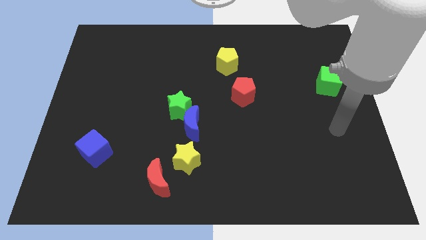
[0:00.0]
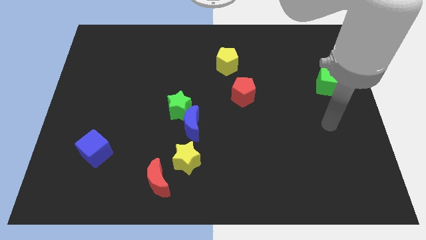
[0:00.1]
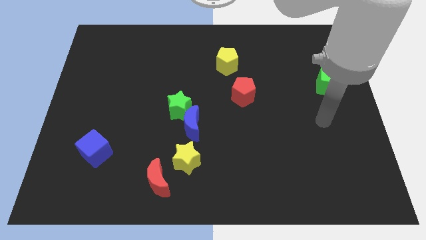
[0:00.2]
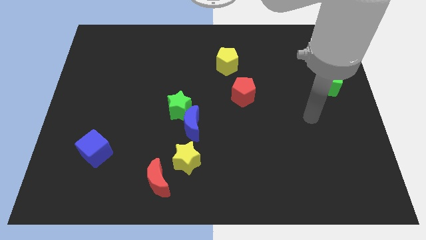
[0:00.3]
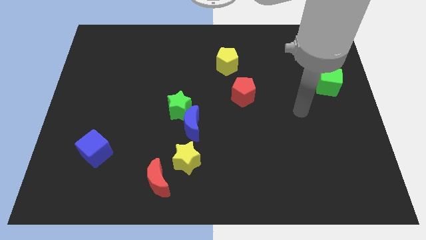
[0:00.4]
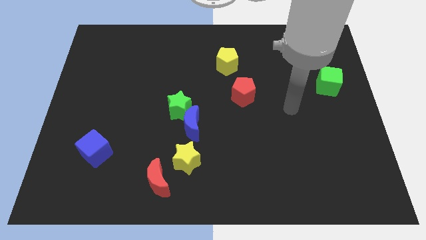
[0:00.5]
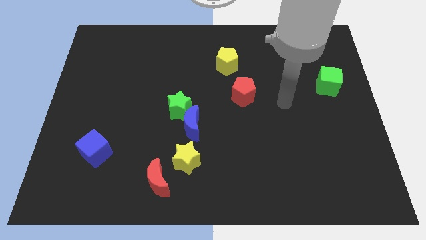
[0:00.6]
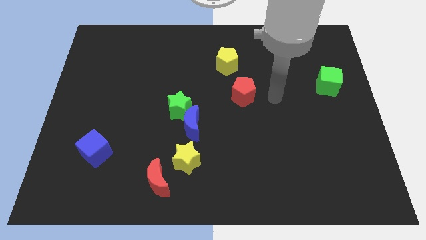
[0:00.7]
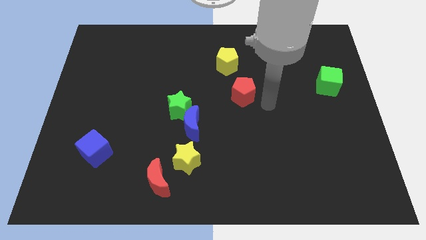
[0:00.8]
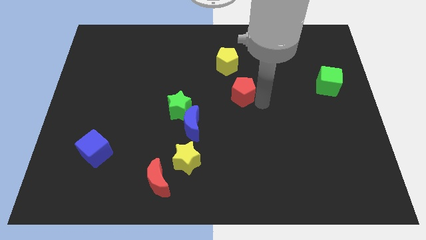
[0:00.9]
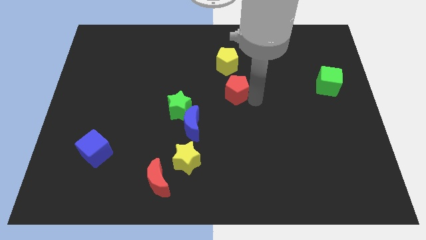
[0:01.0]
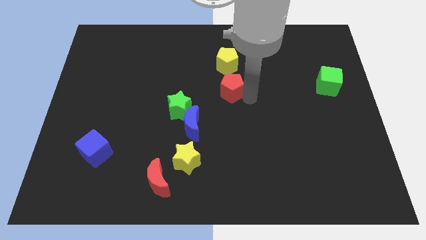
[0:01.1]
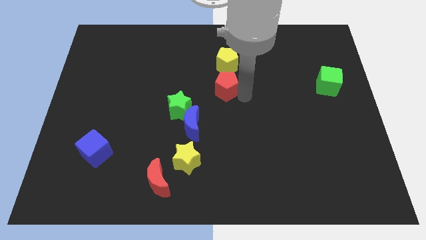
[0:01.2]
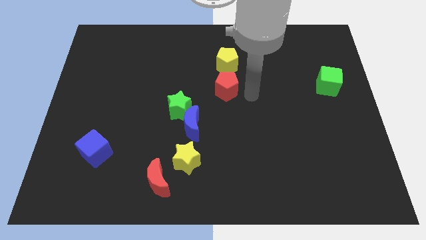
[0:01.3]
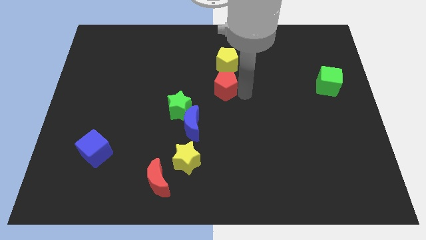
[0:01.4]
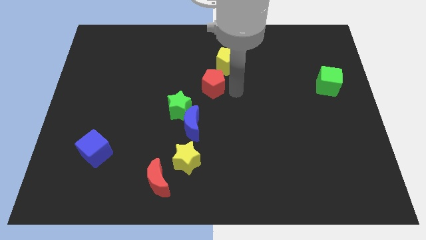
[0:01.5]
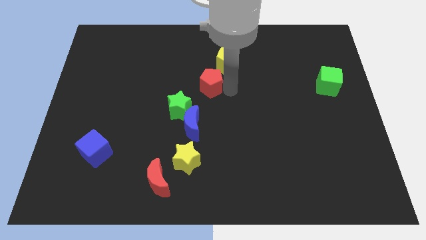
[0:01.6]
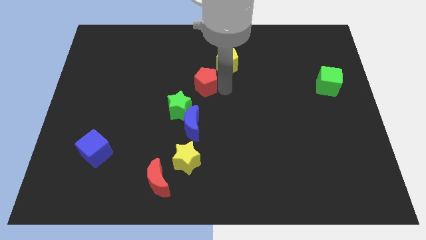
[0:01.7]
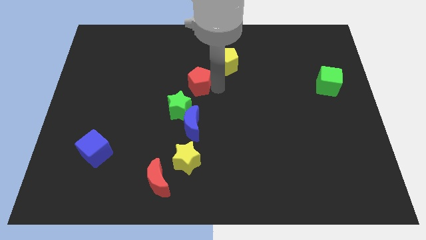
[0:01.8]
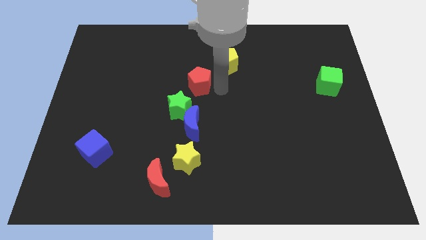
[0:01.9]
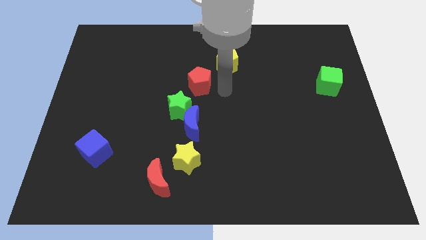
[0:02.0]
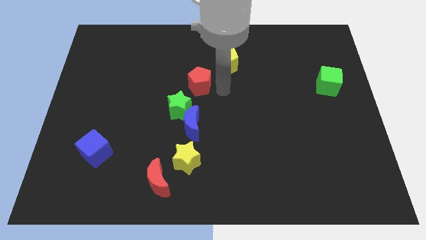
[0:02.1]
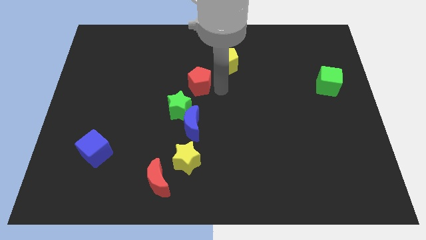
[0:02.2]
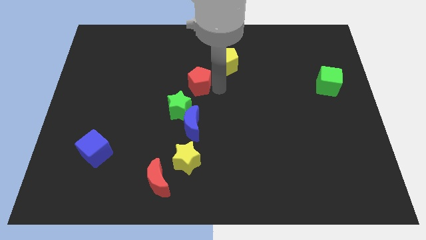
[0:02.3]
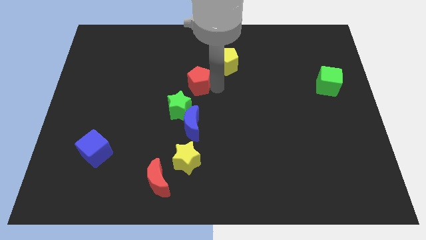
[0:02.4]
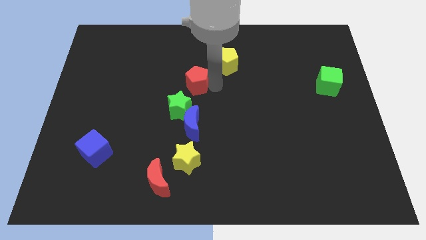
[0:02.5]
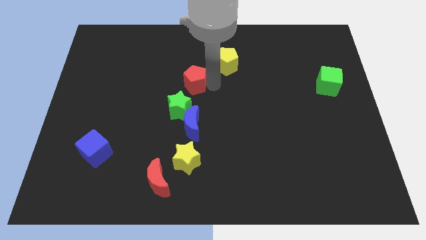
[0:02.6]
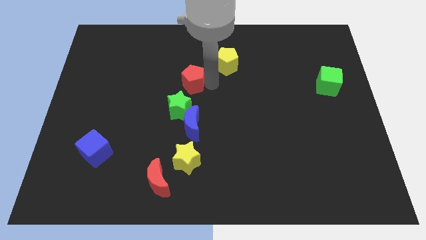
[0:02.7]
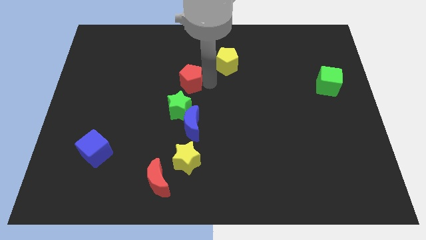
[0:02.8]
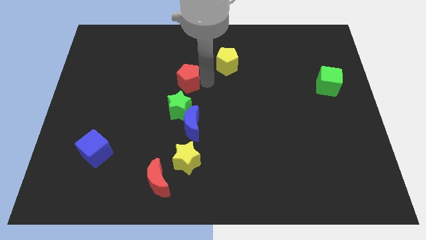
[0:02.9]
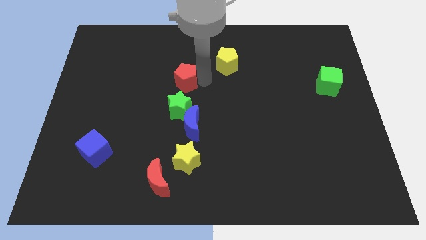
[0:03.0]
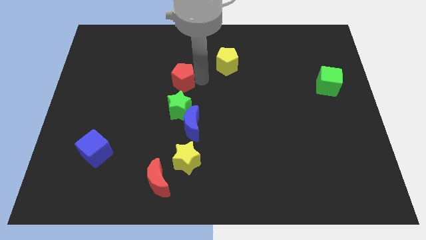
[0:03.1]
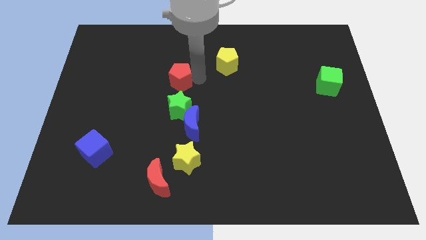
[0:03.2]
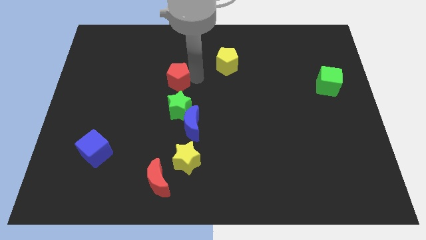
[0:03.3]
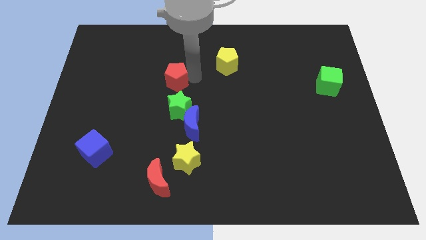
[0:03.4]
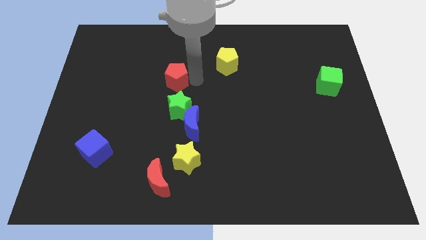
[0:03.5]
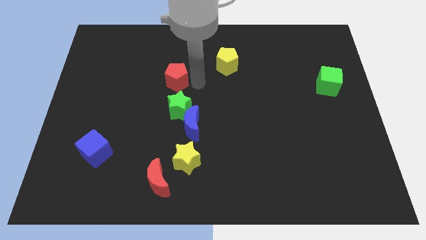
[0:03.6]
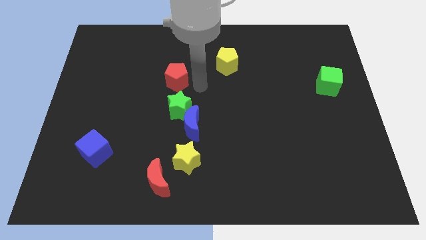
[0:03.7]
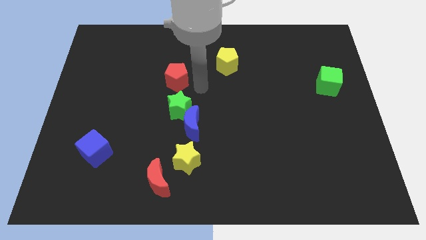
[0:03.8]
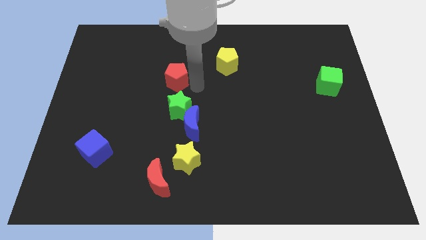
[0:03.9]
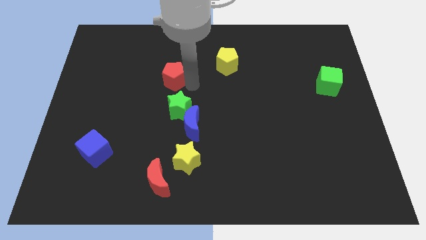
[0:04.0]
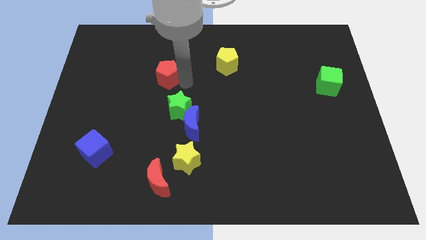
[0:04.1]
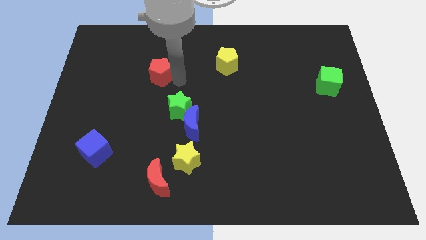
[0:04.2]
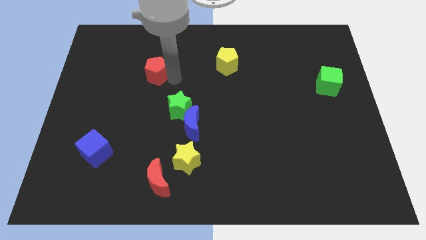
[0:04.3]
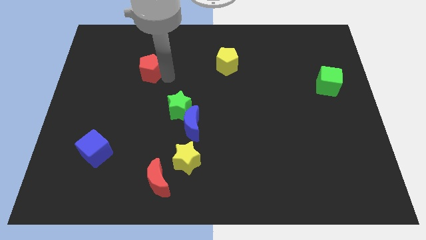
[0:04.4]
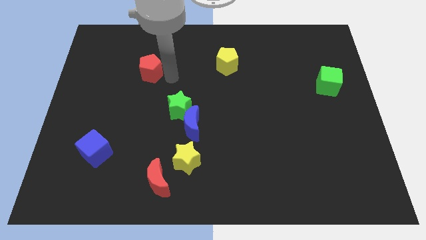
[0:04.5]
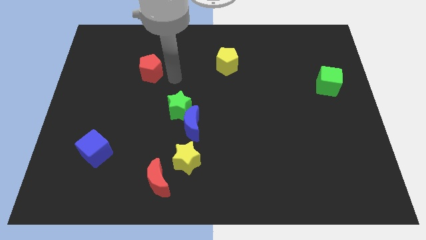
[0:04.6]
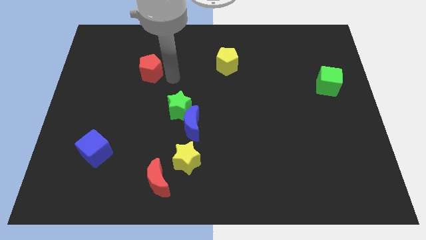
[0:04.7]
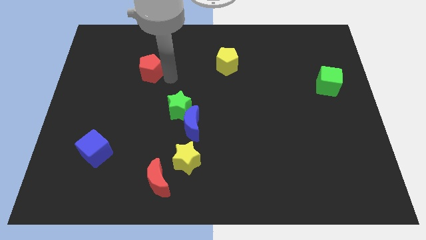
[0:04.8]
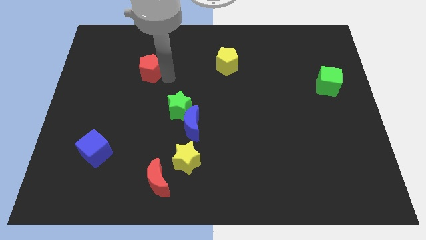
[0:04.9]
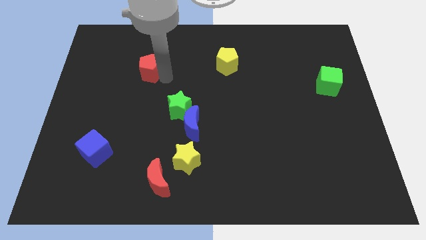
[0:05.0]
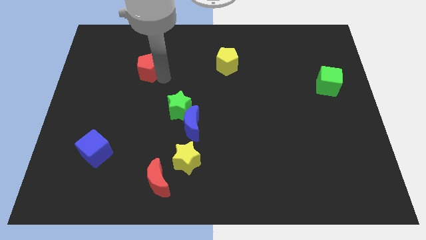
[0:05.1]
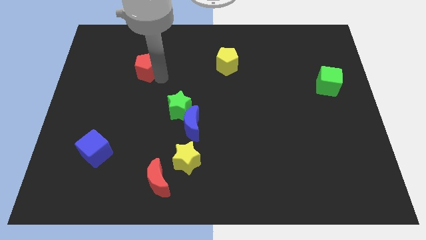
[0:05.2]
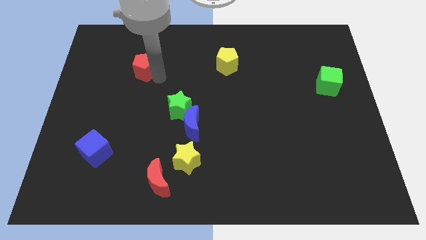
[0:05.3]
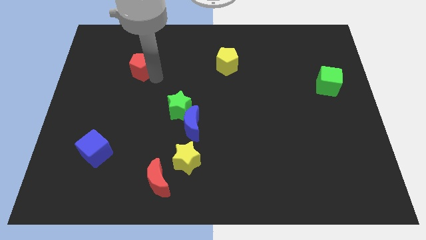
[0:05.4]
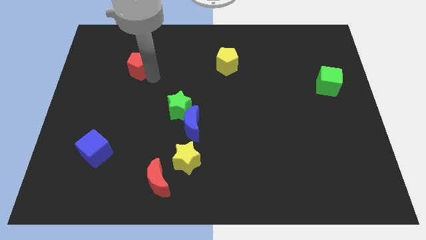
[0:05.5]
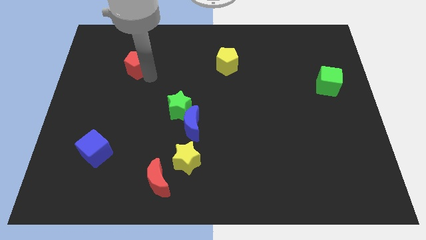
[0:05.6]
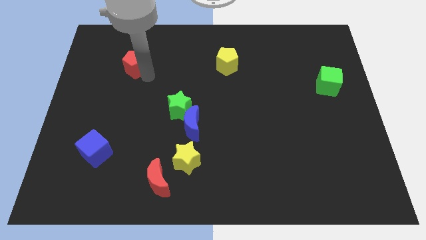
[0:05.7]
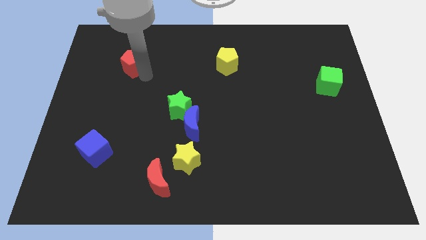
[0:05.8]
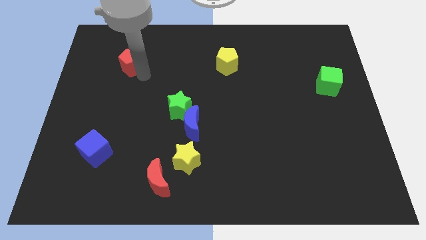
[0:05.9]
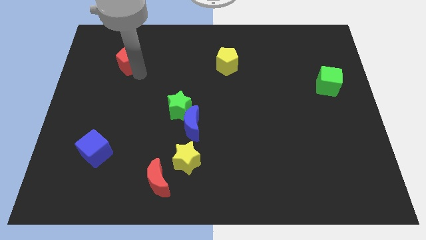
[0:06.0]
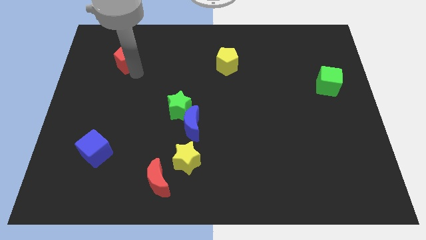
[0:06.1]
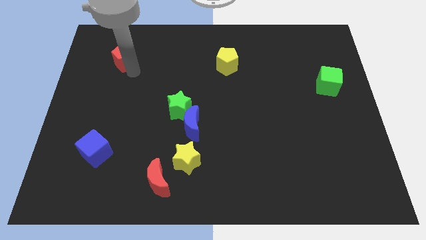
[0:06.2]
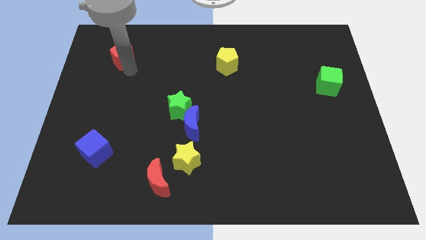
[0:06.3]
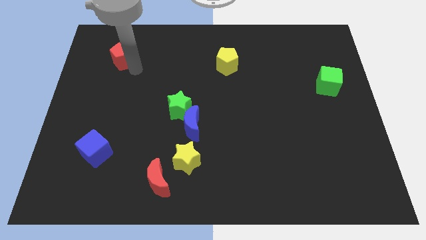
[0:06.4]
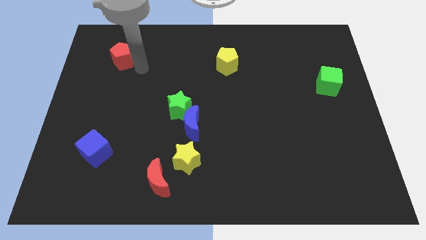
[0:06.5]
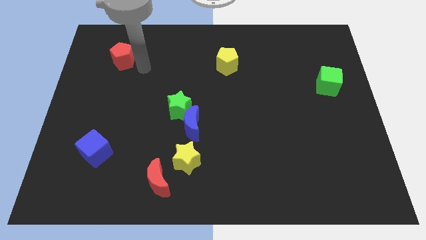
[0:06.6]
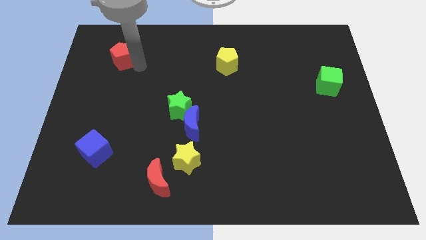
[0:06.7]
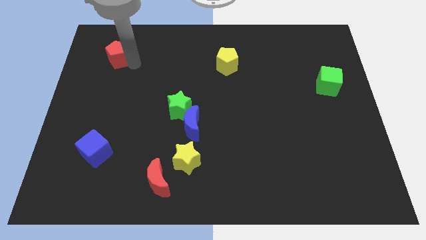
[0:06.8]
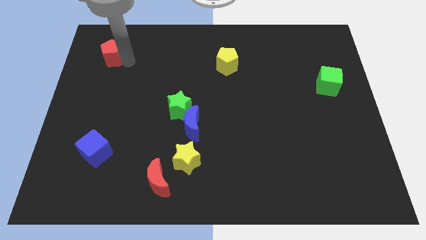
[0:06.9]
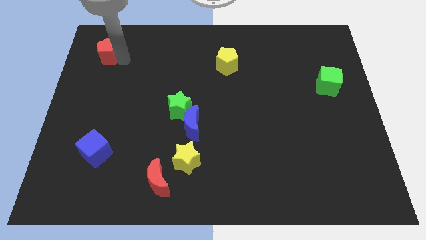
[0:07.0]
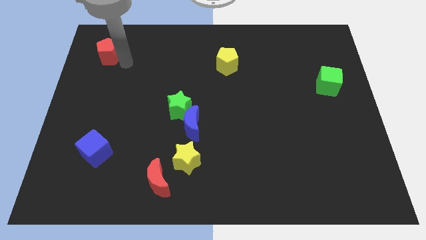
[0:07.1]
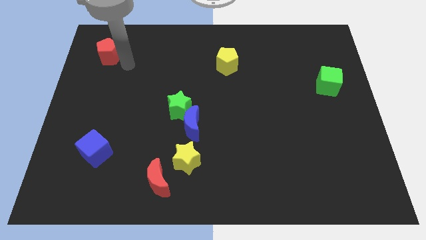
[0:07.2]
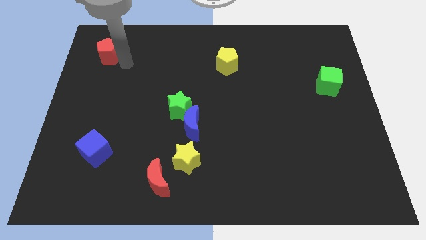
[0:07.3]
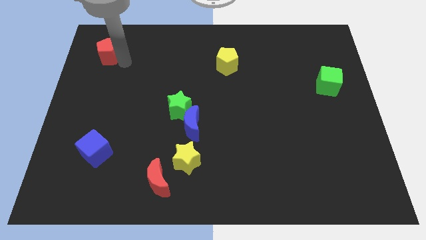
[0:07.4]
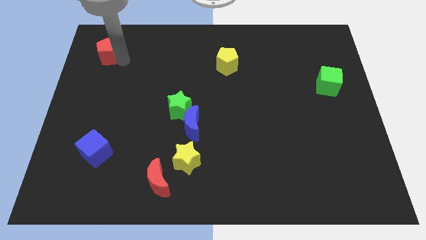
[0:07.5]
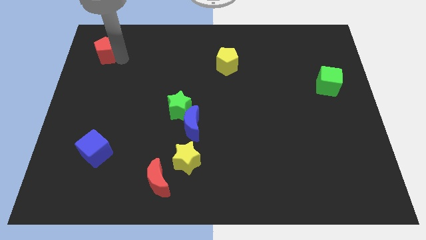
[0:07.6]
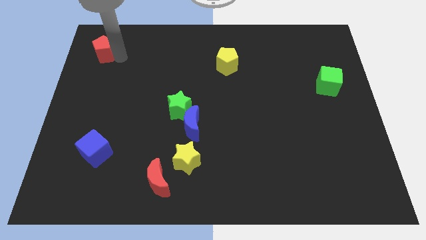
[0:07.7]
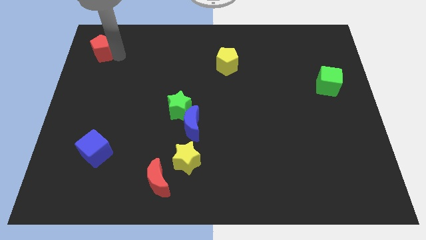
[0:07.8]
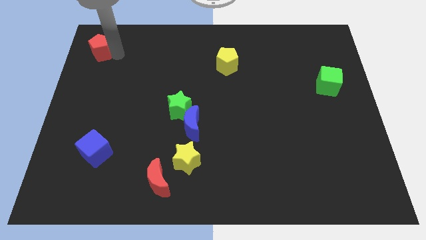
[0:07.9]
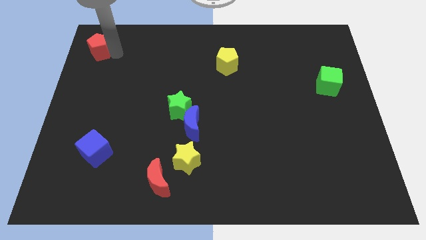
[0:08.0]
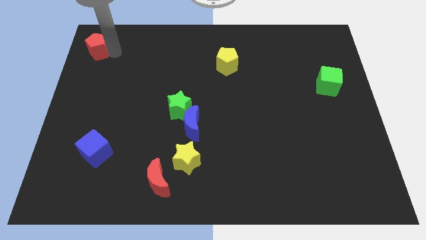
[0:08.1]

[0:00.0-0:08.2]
slide the red pentagon to the upper left corner

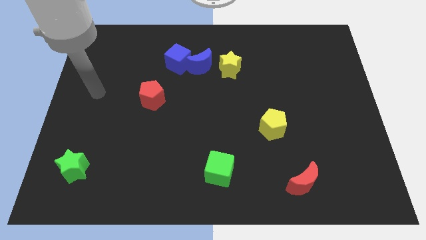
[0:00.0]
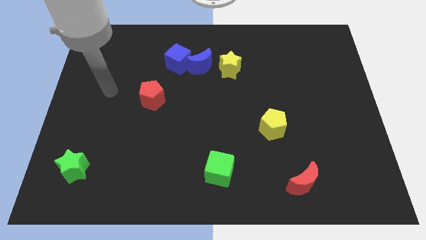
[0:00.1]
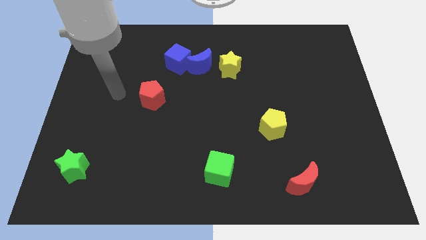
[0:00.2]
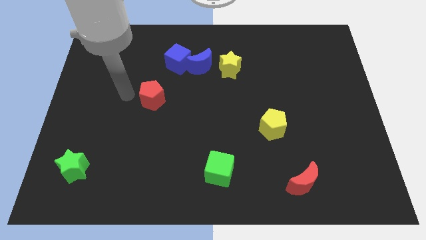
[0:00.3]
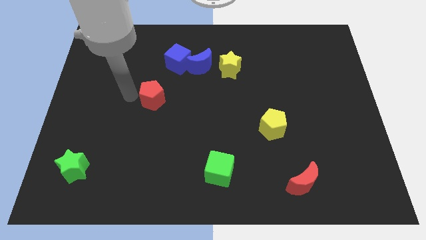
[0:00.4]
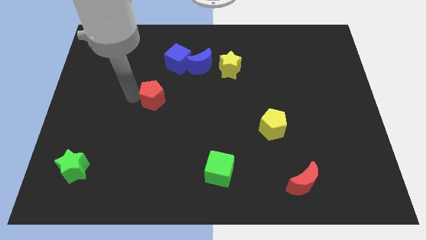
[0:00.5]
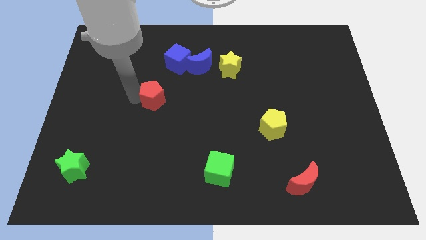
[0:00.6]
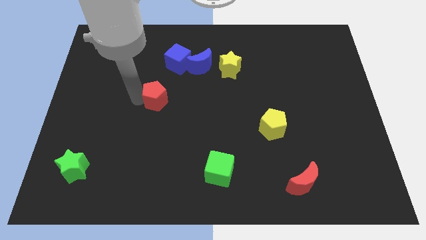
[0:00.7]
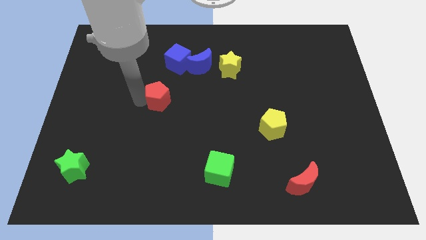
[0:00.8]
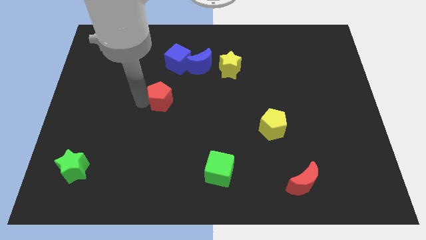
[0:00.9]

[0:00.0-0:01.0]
push the red pentagon to the center of the board
